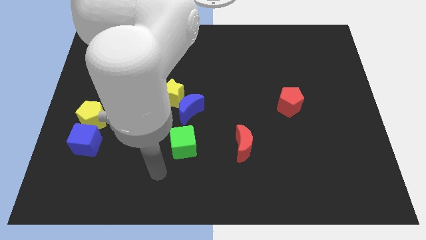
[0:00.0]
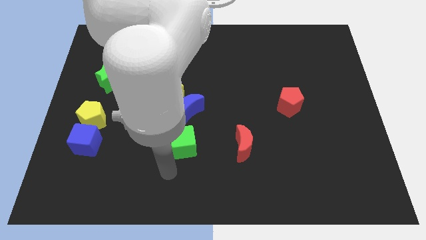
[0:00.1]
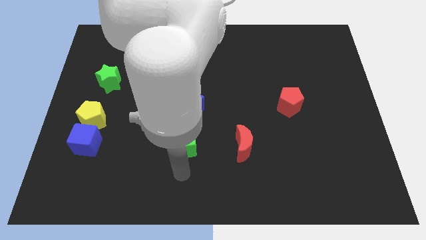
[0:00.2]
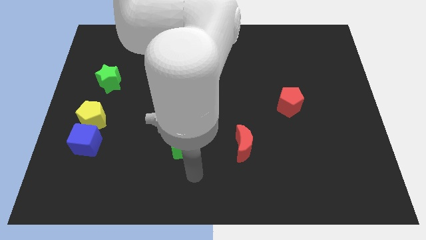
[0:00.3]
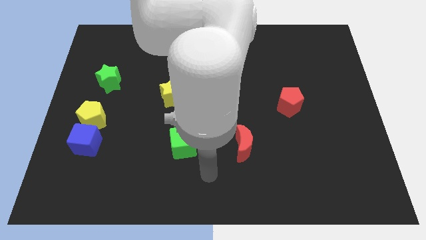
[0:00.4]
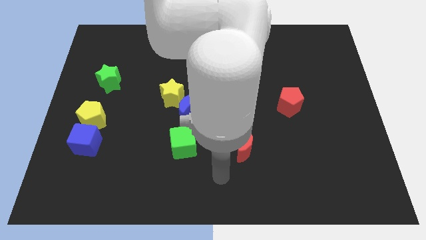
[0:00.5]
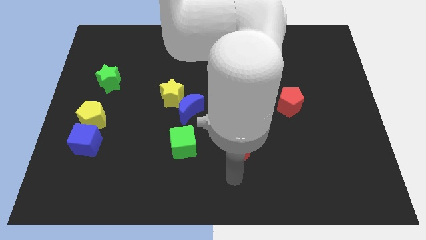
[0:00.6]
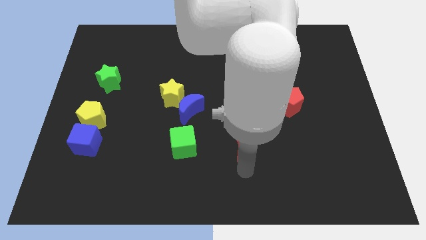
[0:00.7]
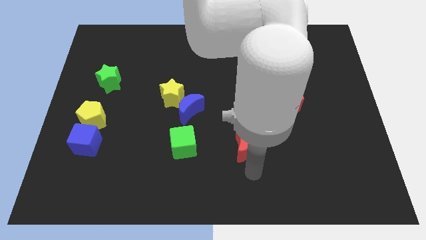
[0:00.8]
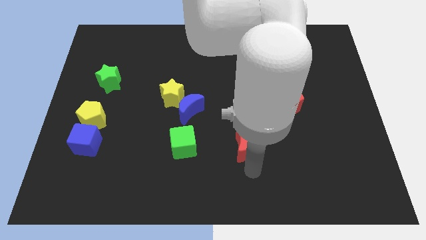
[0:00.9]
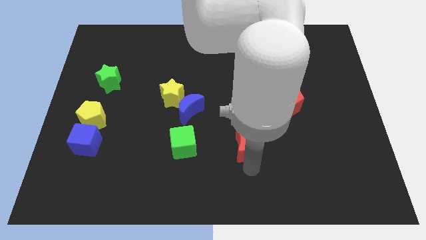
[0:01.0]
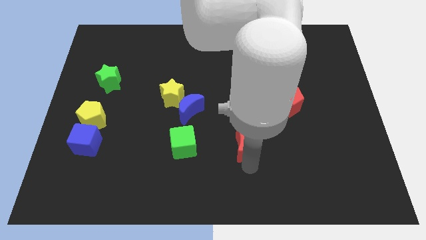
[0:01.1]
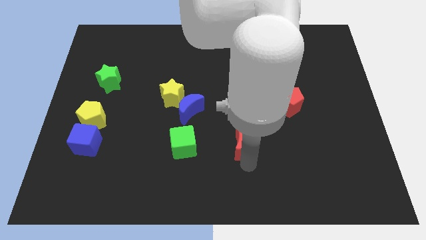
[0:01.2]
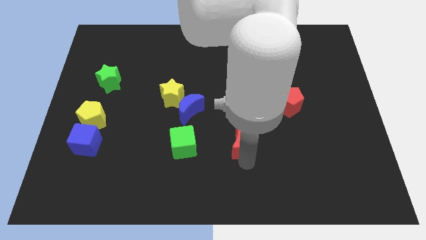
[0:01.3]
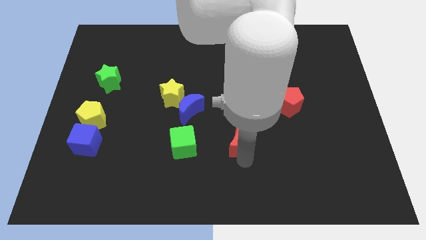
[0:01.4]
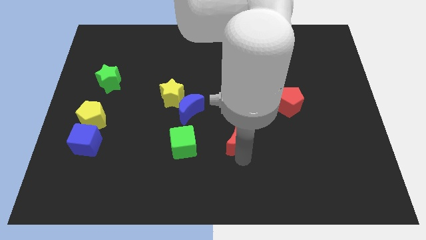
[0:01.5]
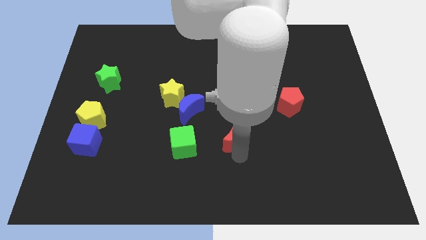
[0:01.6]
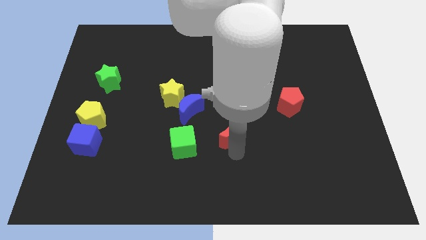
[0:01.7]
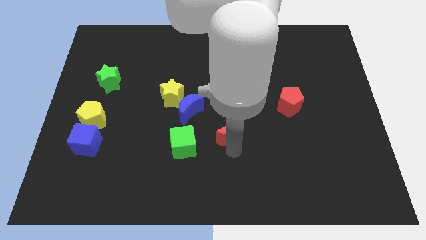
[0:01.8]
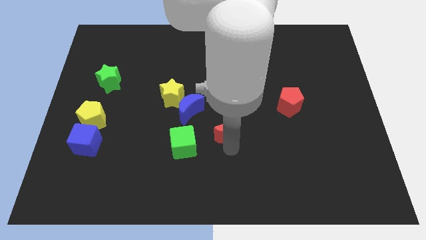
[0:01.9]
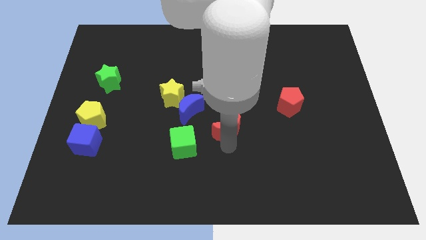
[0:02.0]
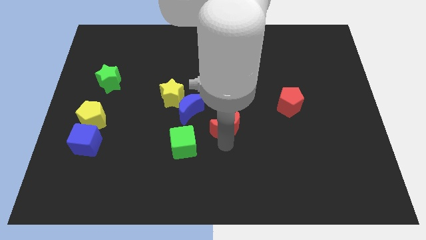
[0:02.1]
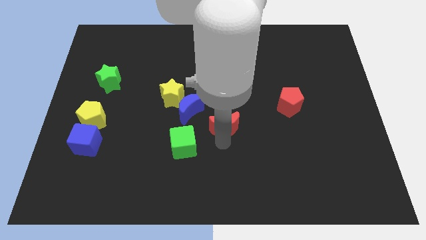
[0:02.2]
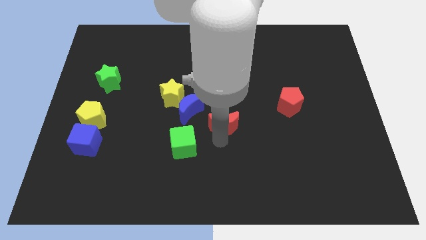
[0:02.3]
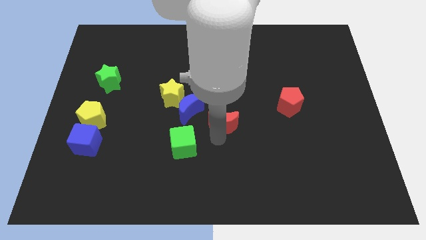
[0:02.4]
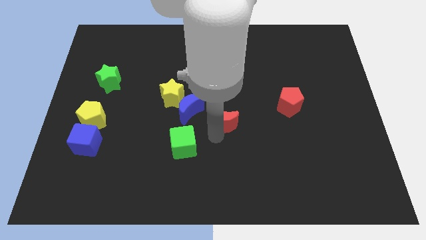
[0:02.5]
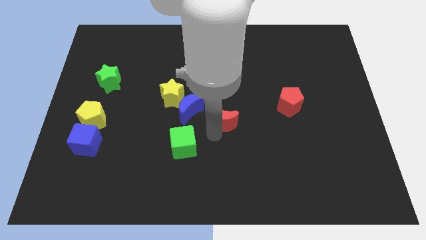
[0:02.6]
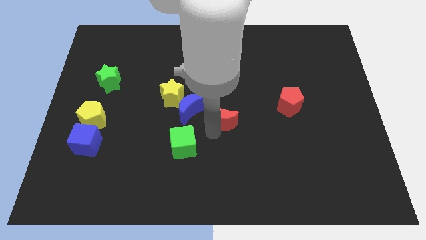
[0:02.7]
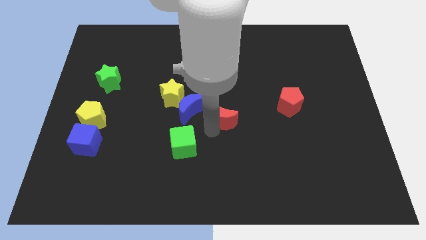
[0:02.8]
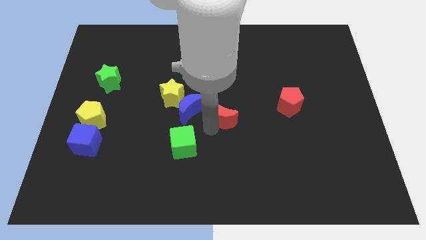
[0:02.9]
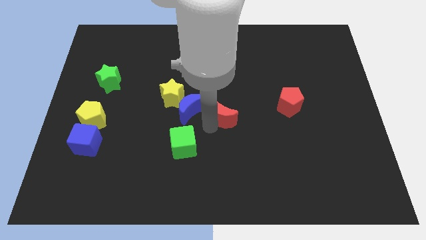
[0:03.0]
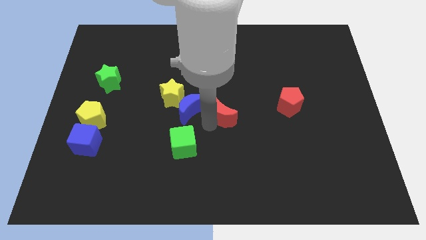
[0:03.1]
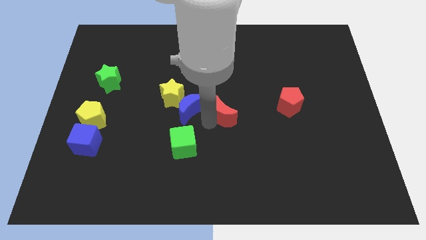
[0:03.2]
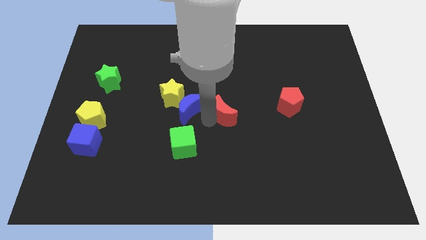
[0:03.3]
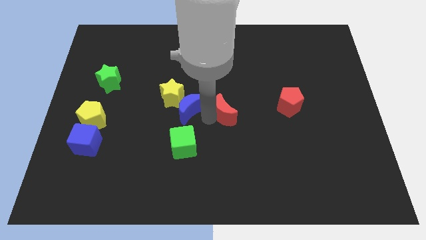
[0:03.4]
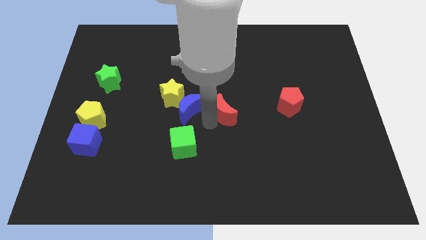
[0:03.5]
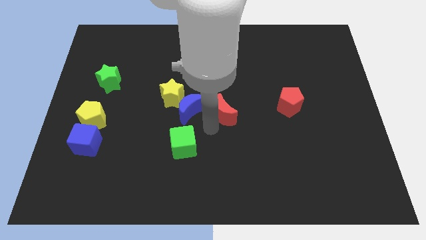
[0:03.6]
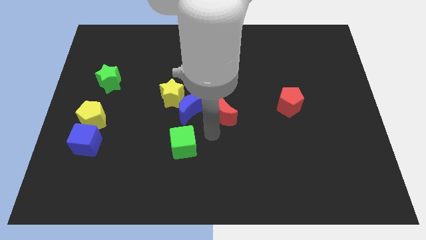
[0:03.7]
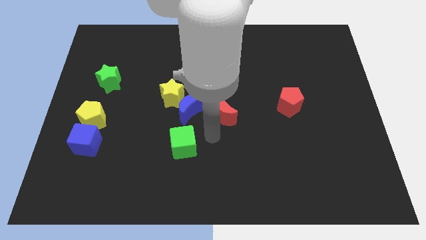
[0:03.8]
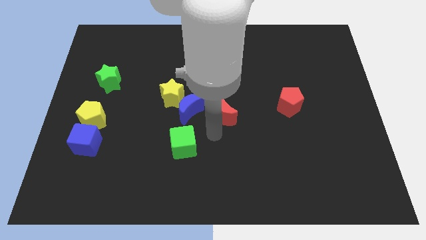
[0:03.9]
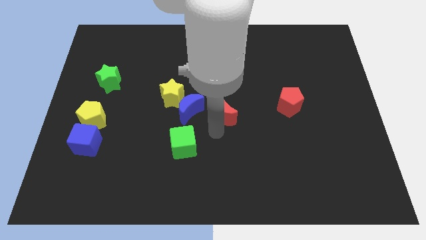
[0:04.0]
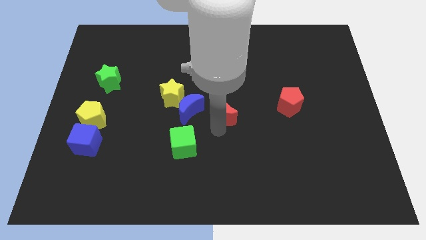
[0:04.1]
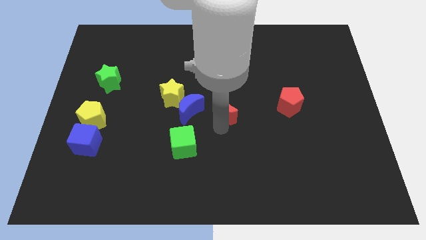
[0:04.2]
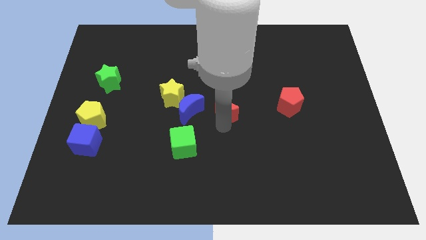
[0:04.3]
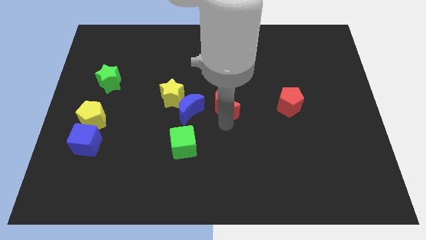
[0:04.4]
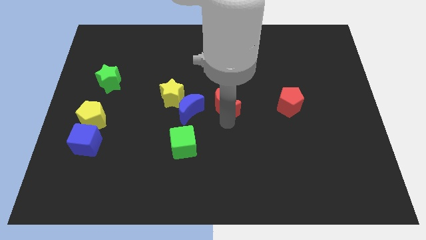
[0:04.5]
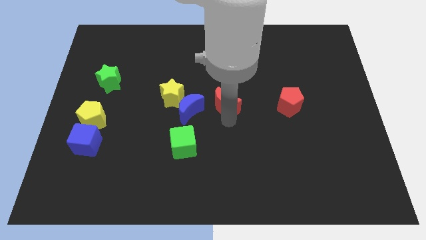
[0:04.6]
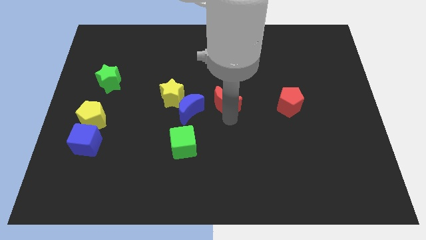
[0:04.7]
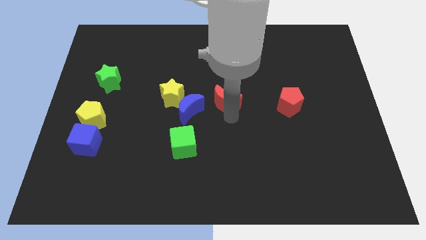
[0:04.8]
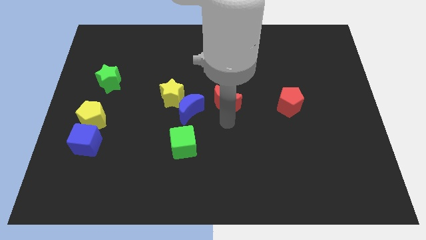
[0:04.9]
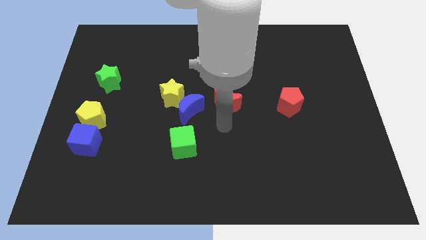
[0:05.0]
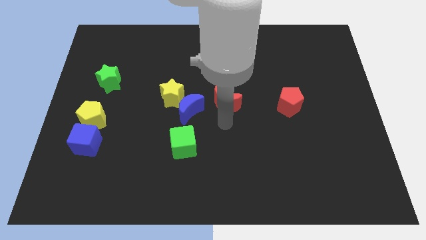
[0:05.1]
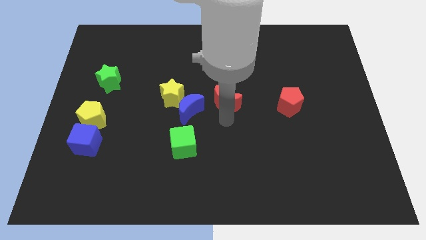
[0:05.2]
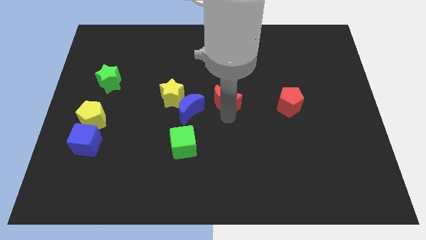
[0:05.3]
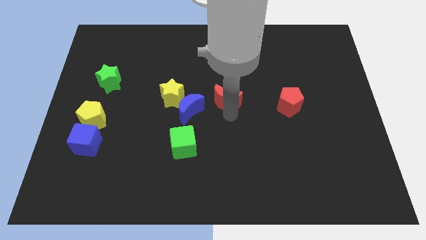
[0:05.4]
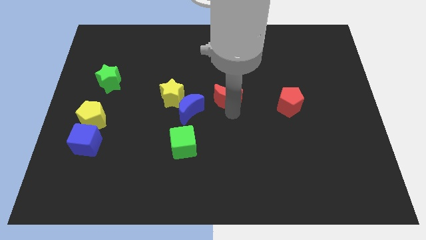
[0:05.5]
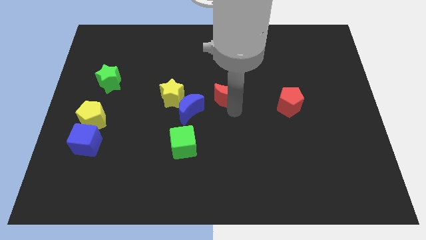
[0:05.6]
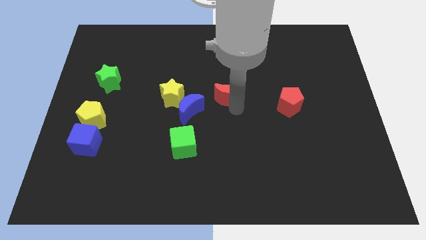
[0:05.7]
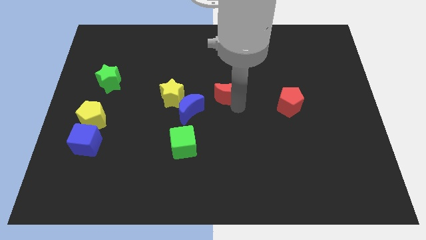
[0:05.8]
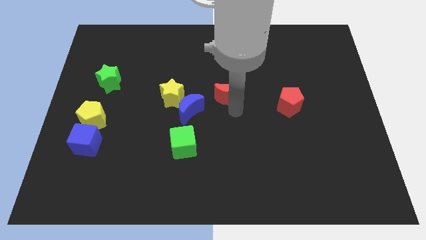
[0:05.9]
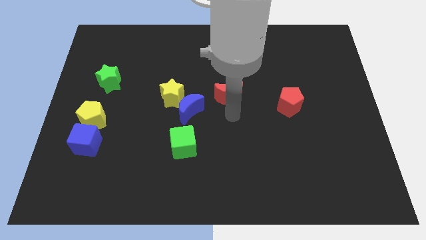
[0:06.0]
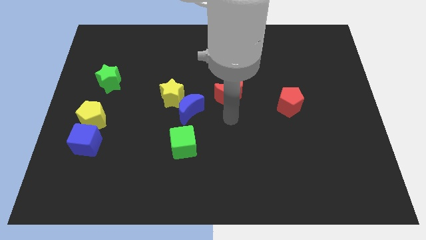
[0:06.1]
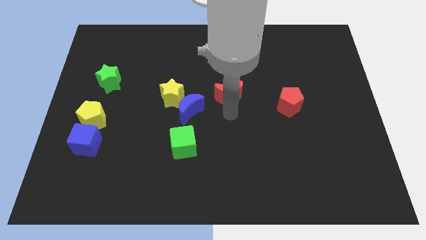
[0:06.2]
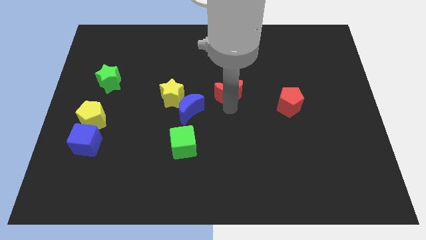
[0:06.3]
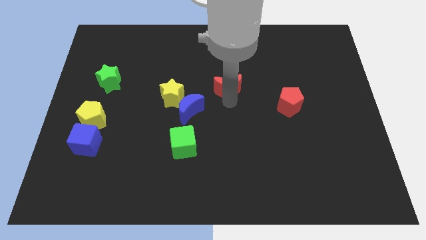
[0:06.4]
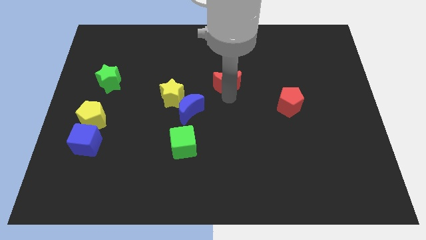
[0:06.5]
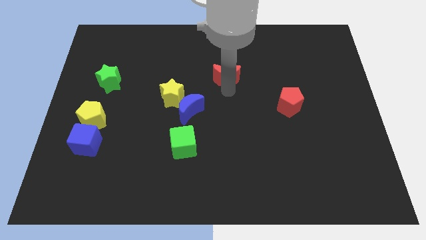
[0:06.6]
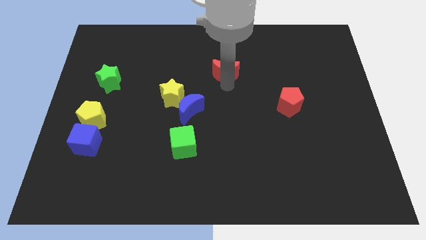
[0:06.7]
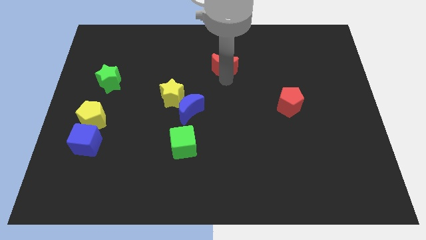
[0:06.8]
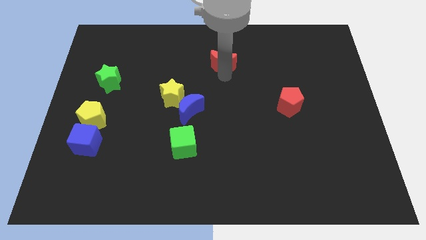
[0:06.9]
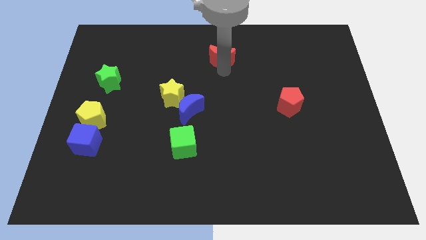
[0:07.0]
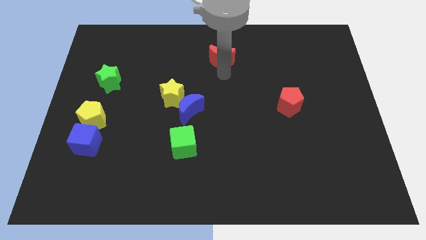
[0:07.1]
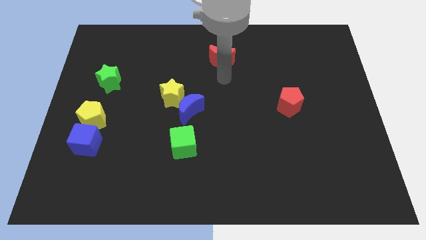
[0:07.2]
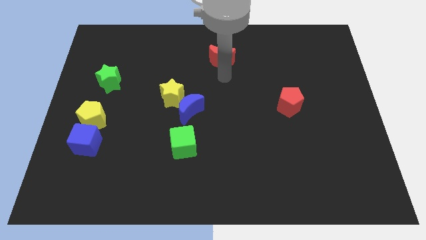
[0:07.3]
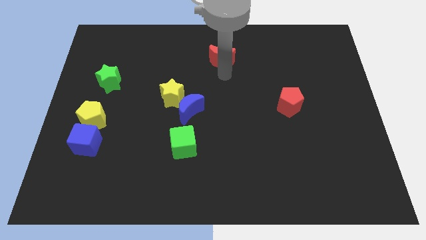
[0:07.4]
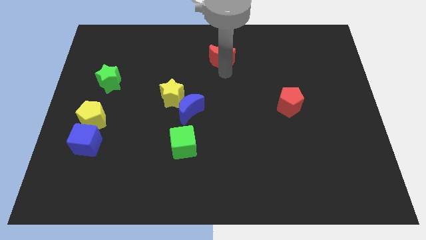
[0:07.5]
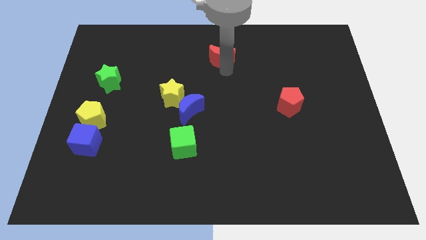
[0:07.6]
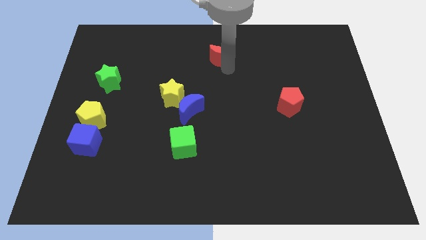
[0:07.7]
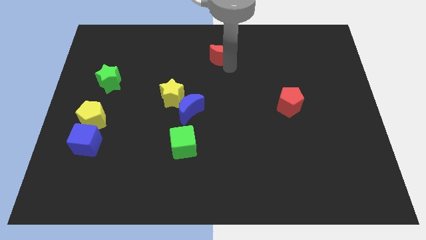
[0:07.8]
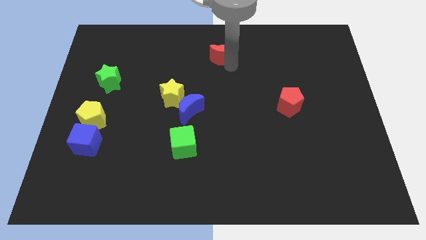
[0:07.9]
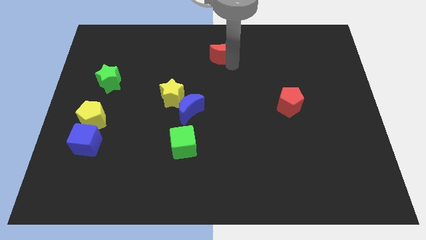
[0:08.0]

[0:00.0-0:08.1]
put the red moon to the towards your base
